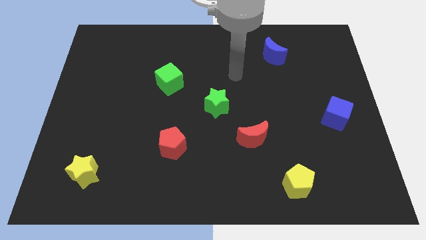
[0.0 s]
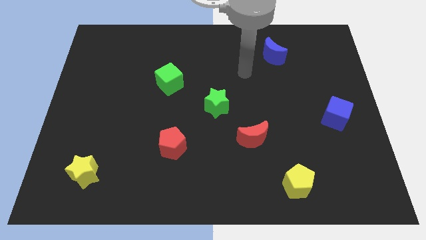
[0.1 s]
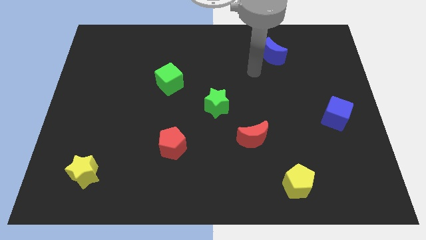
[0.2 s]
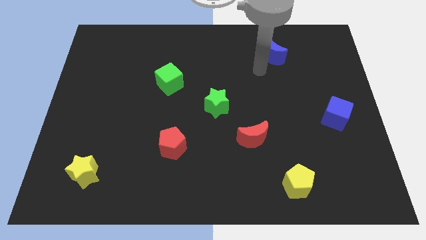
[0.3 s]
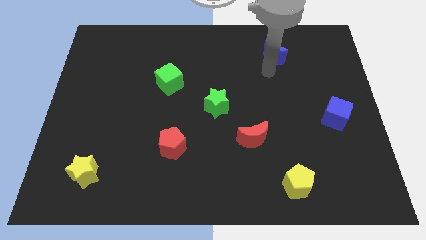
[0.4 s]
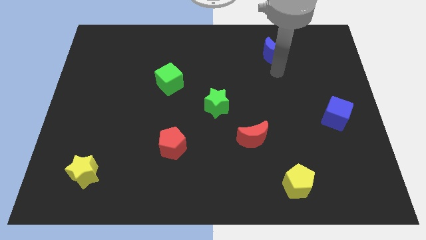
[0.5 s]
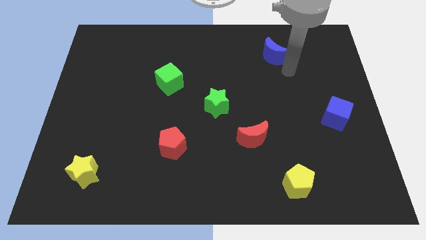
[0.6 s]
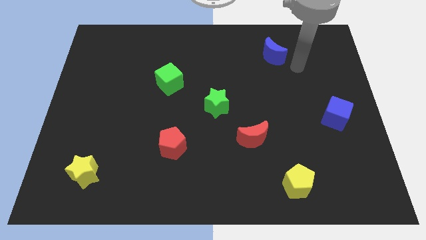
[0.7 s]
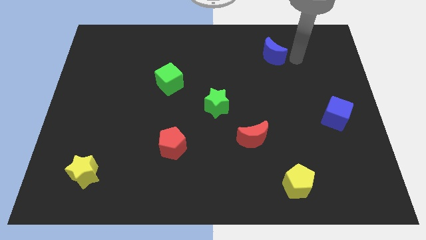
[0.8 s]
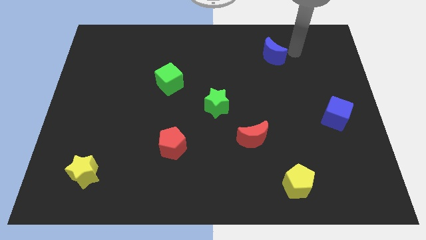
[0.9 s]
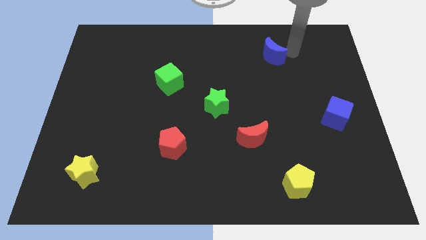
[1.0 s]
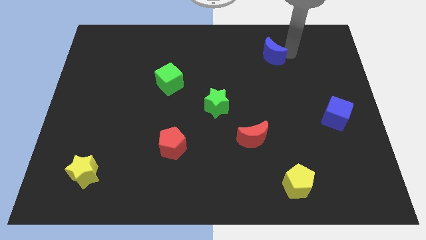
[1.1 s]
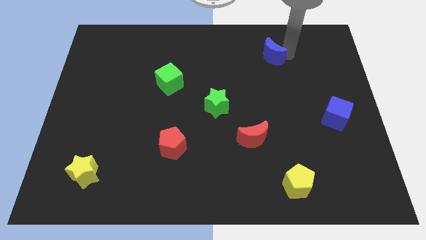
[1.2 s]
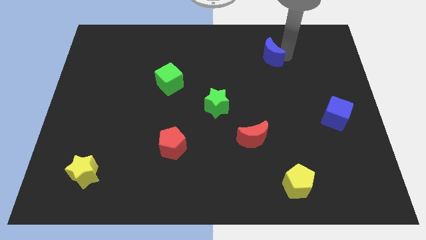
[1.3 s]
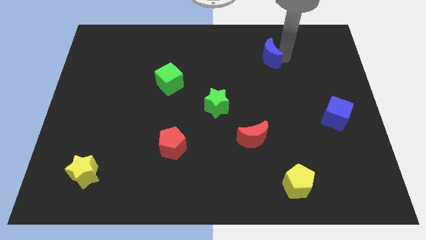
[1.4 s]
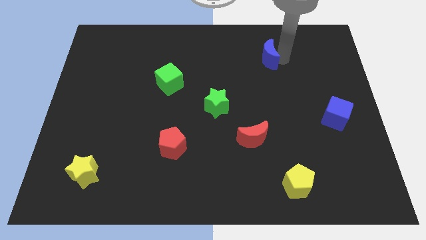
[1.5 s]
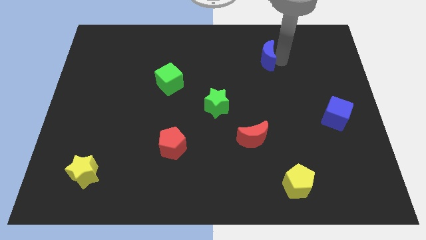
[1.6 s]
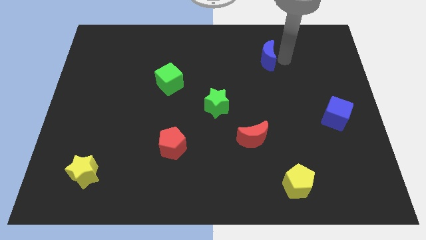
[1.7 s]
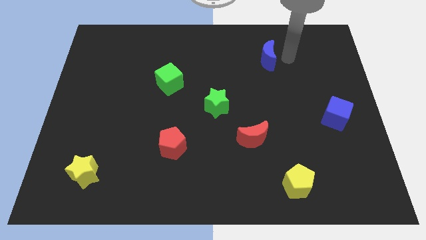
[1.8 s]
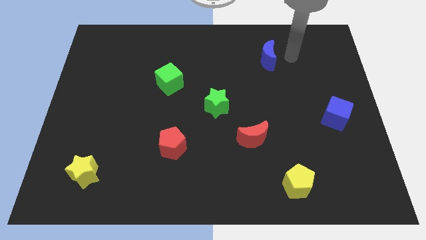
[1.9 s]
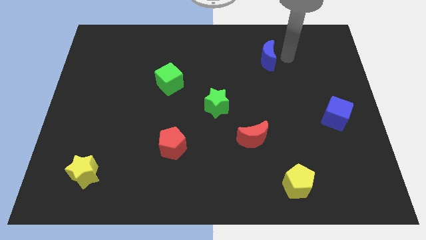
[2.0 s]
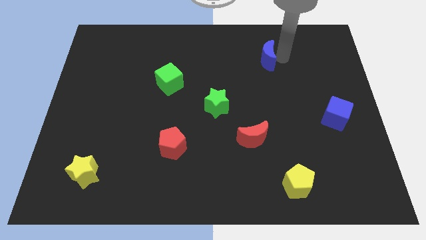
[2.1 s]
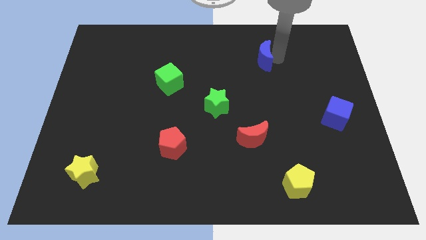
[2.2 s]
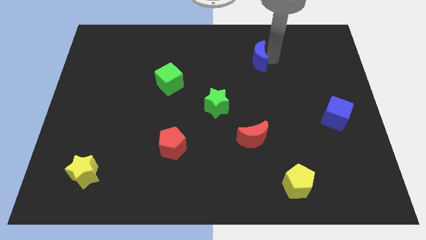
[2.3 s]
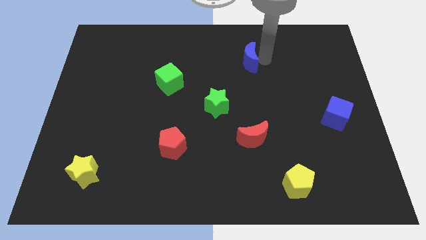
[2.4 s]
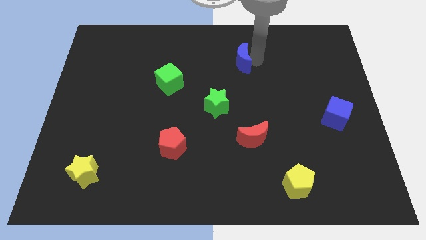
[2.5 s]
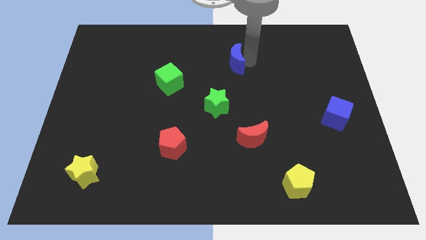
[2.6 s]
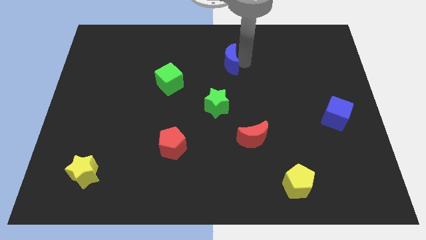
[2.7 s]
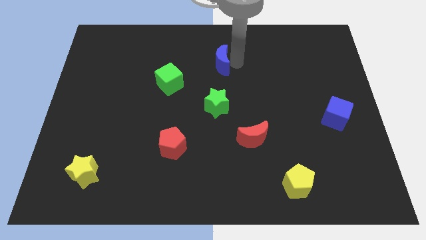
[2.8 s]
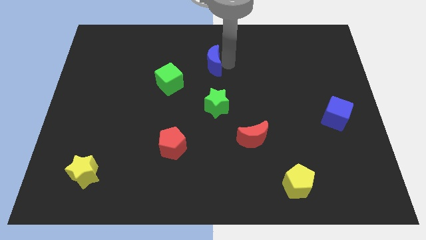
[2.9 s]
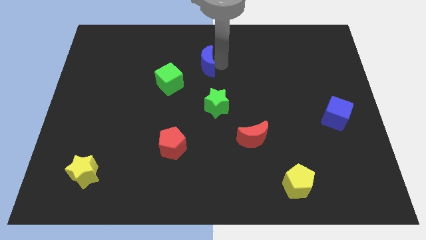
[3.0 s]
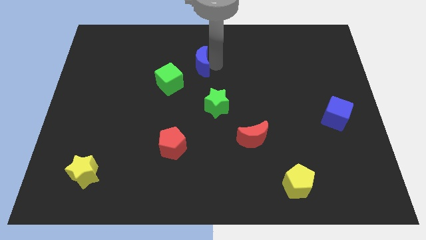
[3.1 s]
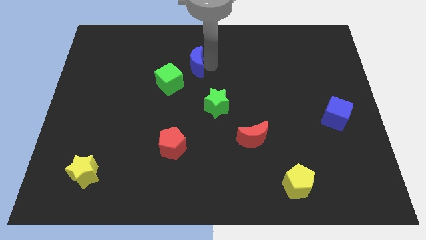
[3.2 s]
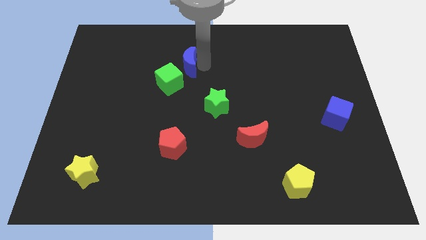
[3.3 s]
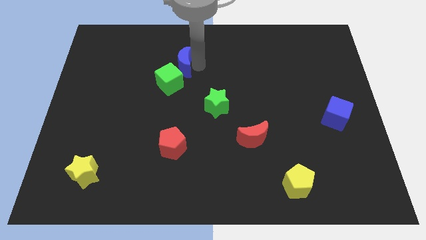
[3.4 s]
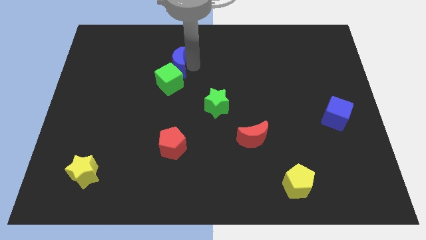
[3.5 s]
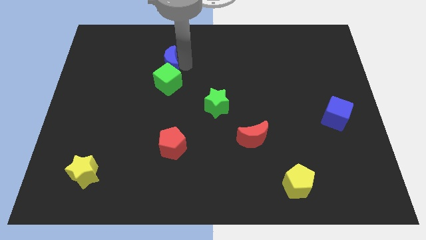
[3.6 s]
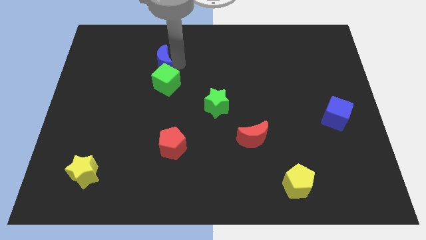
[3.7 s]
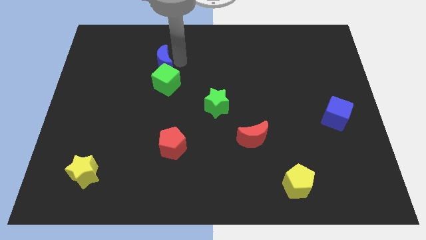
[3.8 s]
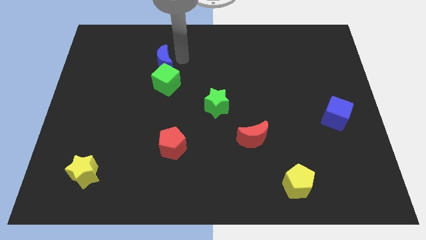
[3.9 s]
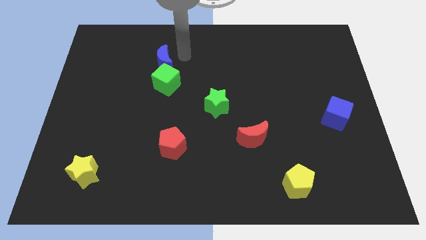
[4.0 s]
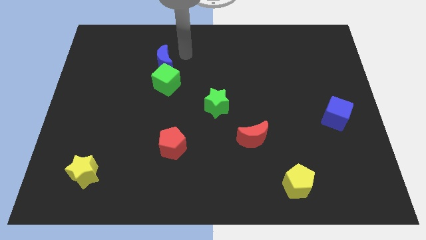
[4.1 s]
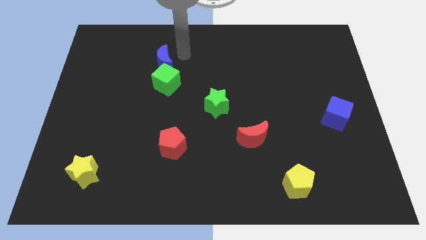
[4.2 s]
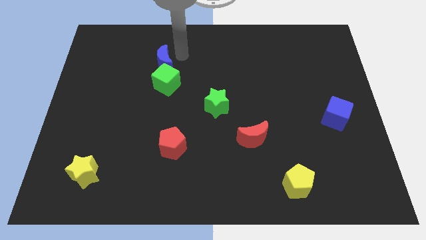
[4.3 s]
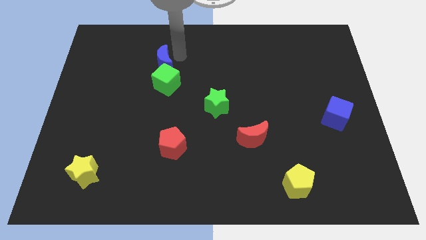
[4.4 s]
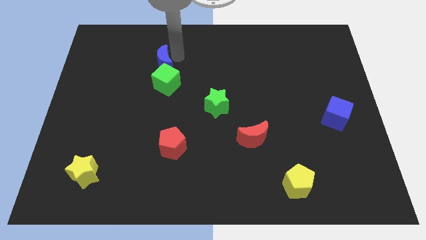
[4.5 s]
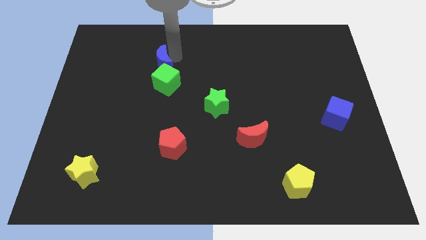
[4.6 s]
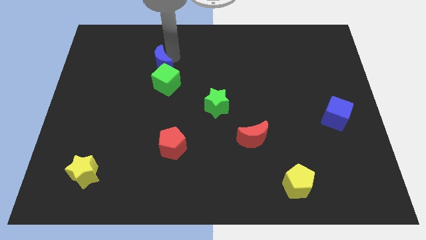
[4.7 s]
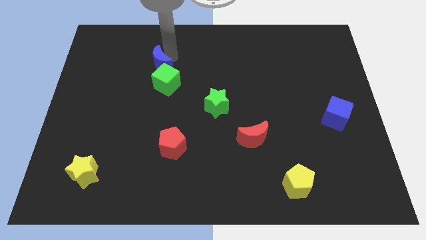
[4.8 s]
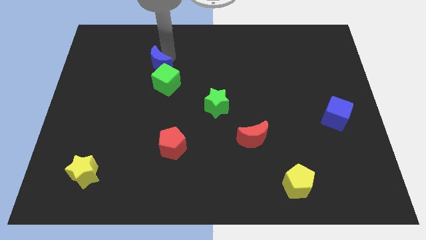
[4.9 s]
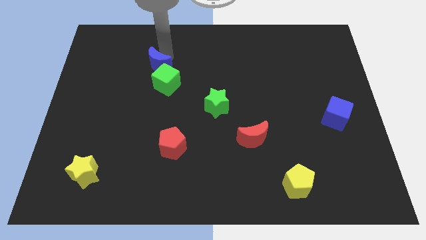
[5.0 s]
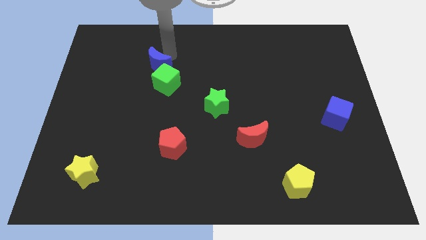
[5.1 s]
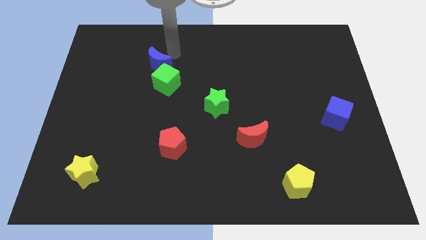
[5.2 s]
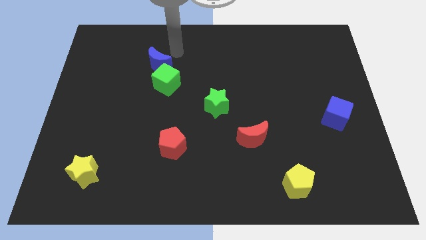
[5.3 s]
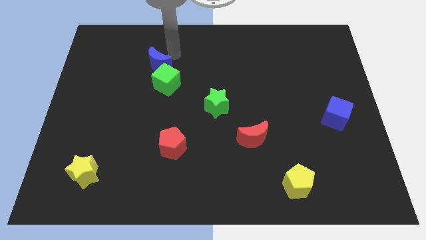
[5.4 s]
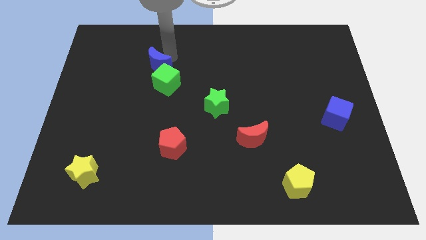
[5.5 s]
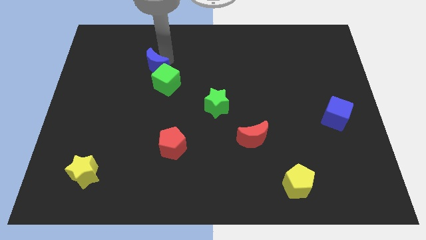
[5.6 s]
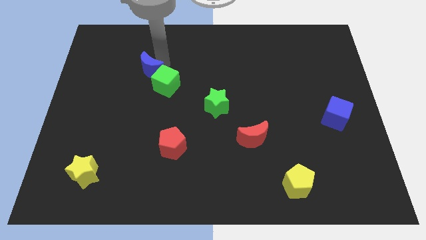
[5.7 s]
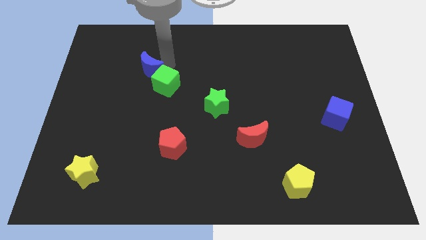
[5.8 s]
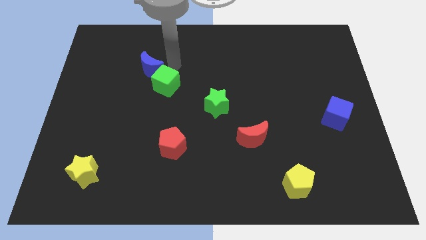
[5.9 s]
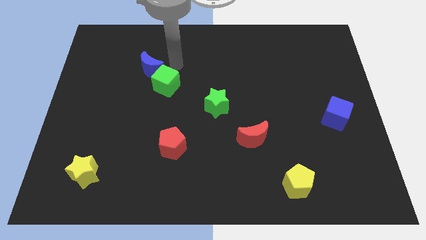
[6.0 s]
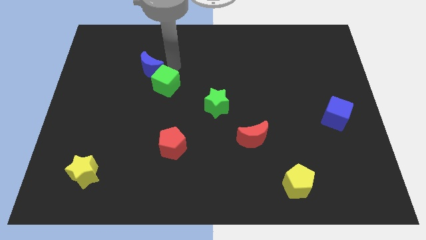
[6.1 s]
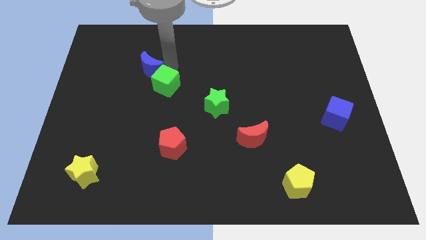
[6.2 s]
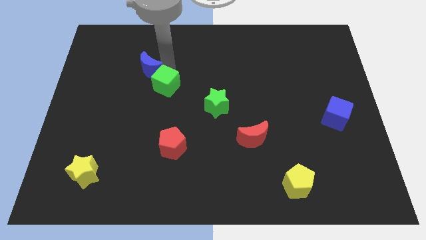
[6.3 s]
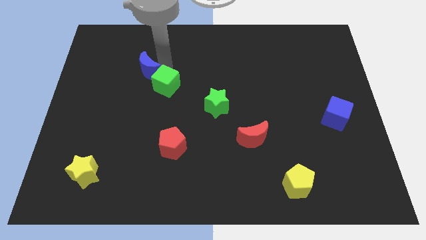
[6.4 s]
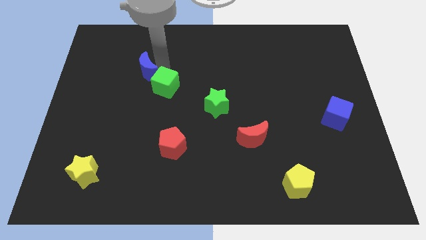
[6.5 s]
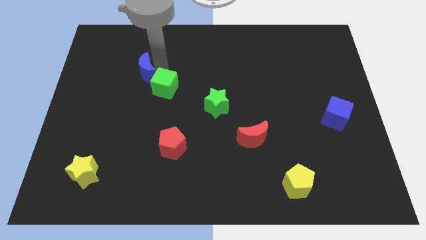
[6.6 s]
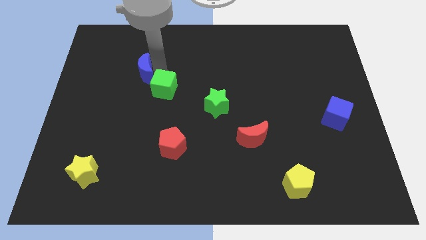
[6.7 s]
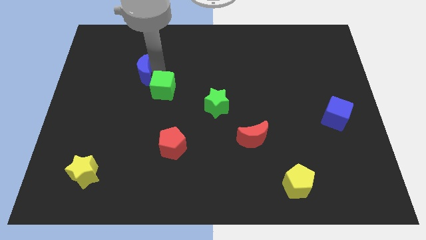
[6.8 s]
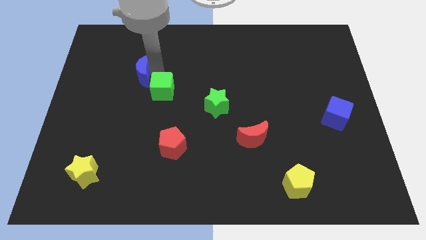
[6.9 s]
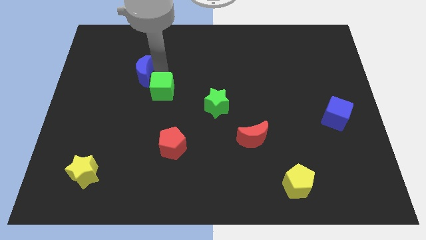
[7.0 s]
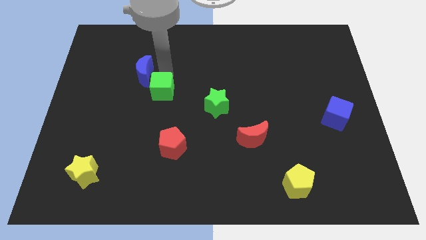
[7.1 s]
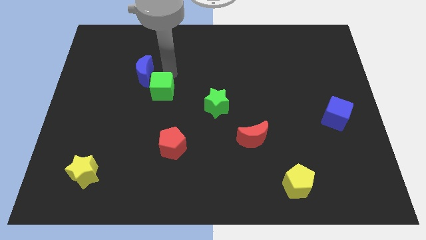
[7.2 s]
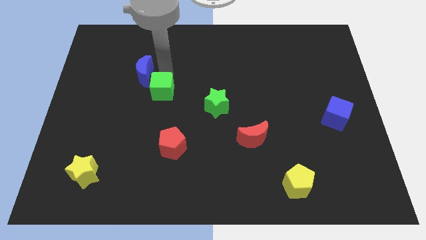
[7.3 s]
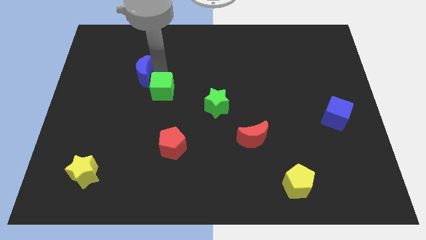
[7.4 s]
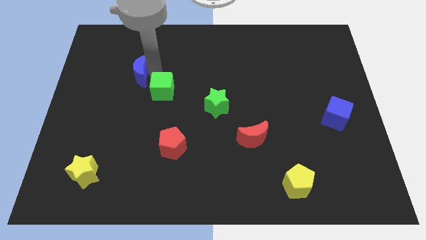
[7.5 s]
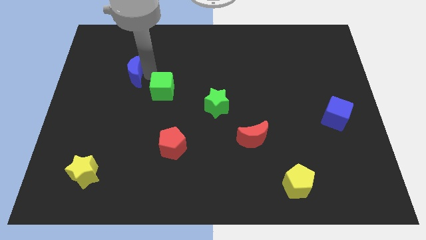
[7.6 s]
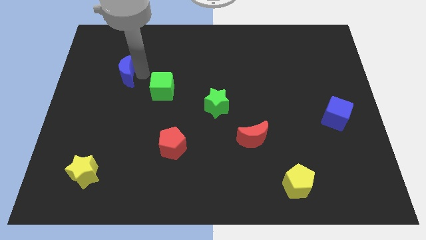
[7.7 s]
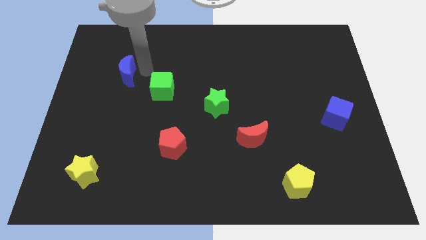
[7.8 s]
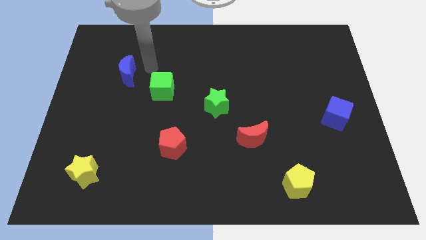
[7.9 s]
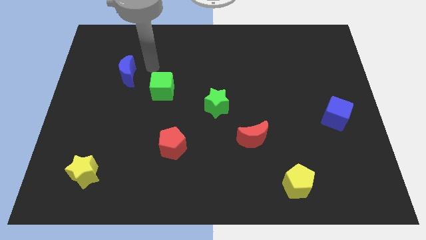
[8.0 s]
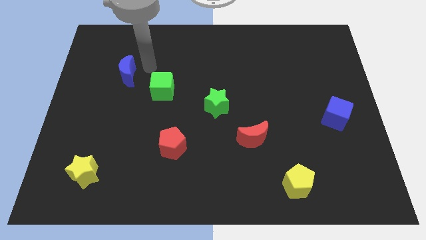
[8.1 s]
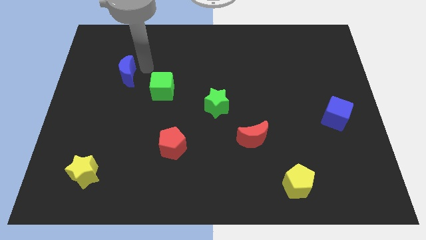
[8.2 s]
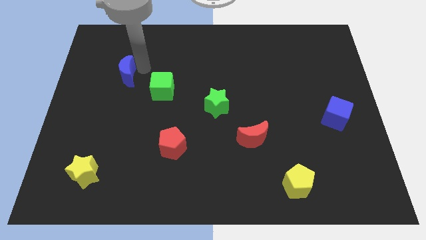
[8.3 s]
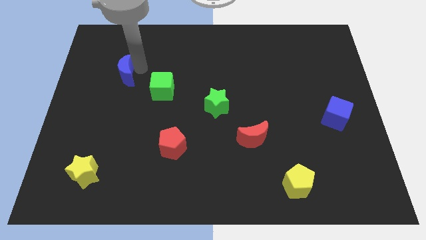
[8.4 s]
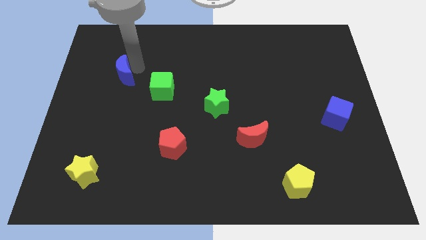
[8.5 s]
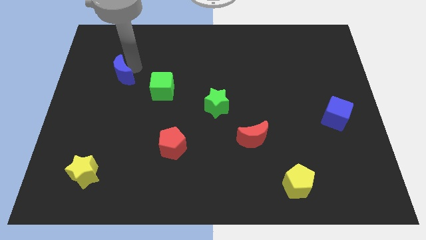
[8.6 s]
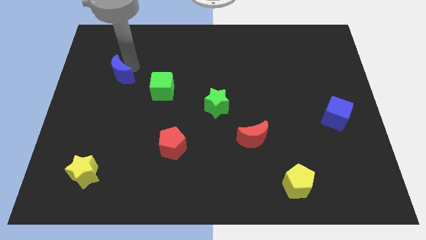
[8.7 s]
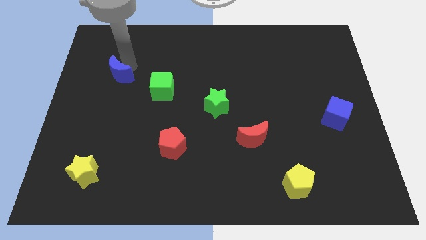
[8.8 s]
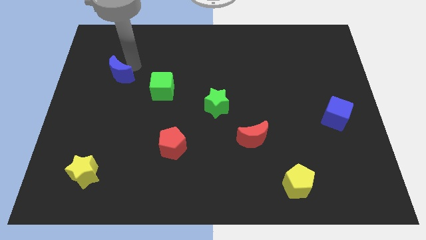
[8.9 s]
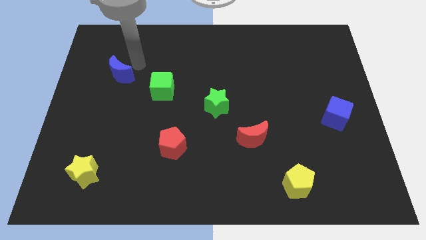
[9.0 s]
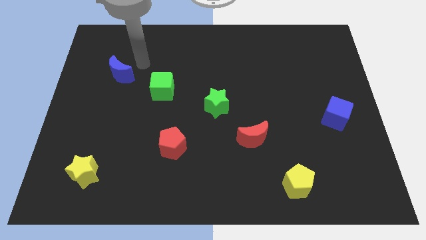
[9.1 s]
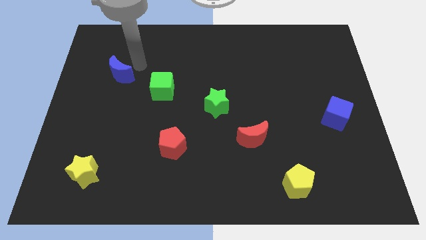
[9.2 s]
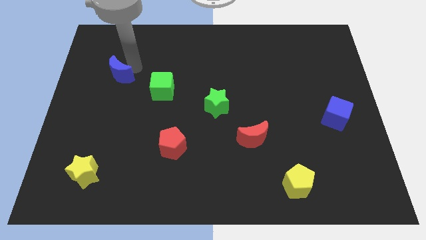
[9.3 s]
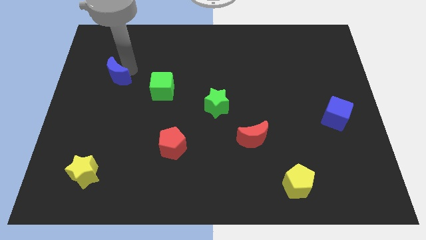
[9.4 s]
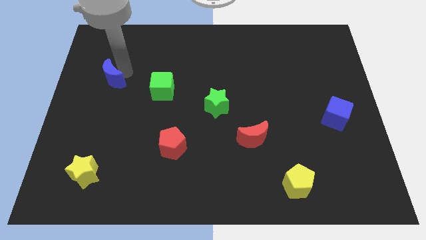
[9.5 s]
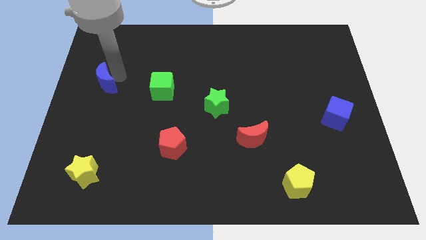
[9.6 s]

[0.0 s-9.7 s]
move the blue moon to the left side of the board
